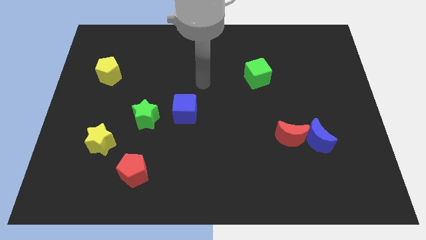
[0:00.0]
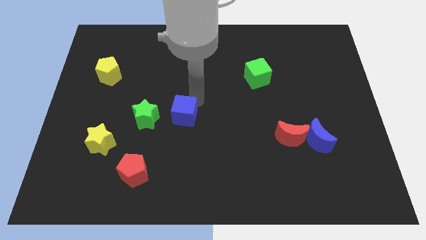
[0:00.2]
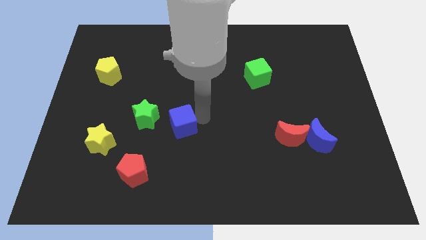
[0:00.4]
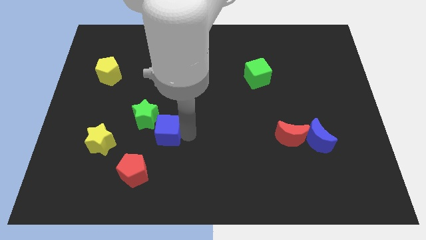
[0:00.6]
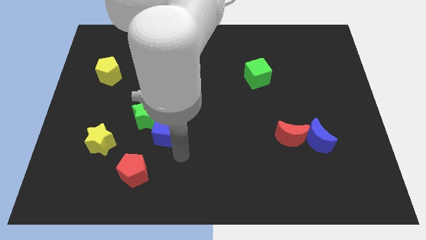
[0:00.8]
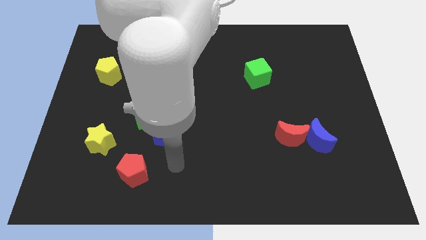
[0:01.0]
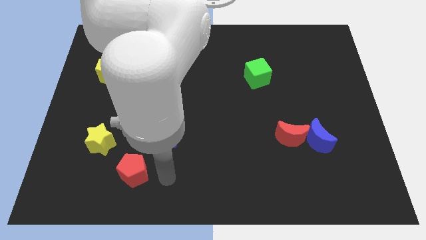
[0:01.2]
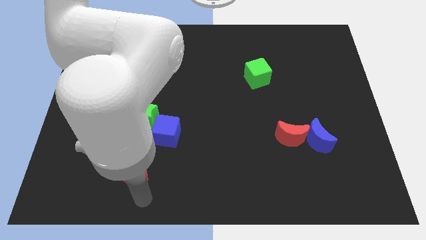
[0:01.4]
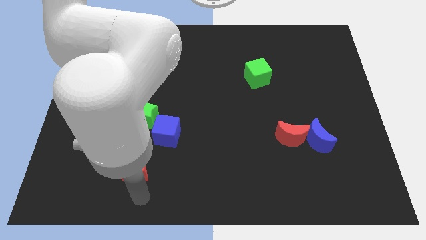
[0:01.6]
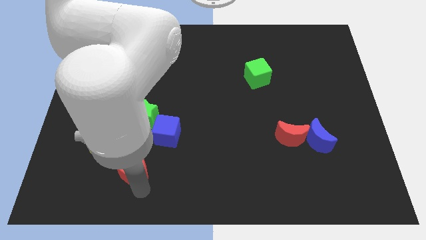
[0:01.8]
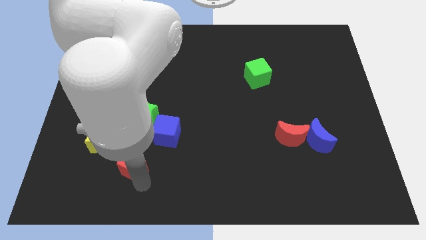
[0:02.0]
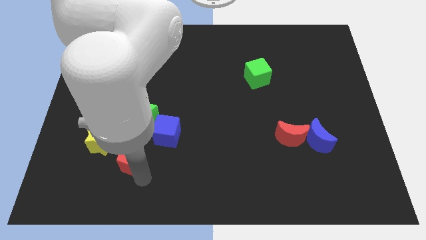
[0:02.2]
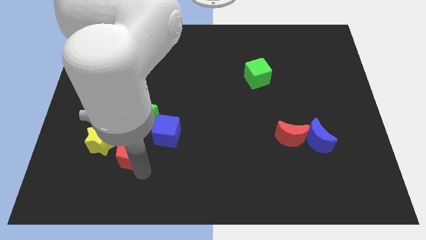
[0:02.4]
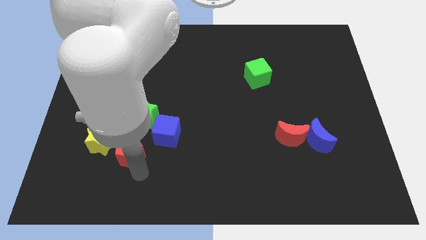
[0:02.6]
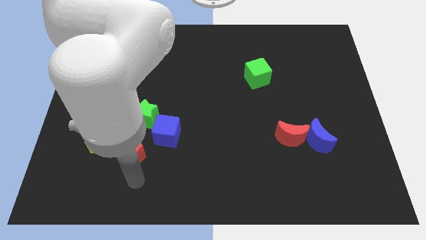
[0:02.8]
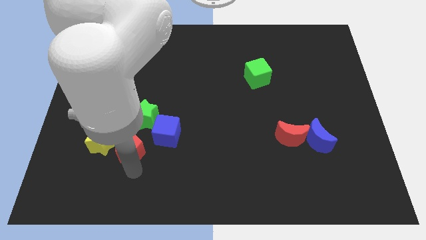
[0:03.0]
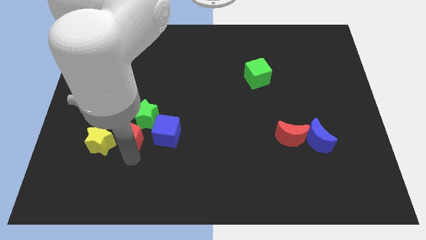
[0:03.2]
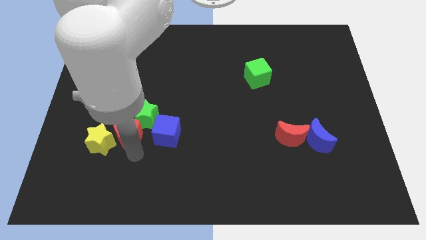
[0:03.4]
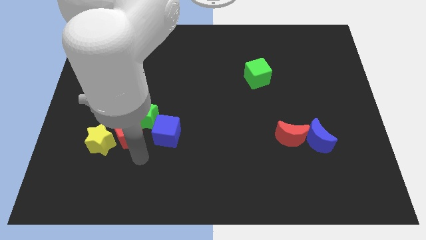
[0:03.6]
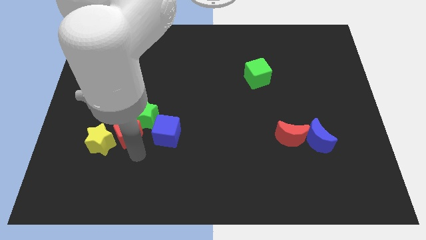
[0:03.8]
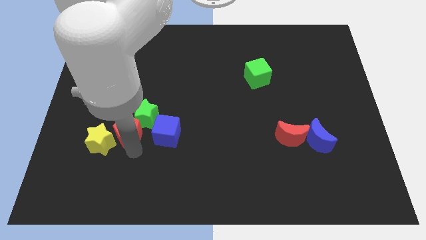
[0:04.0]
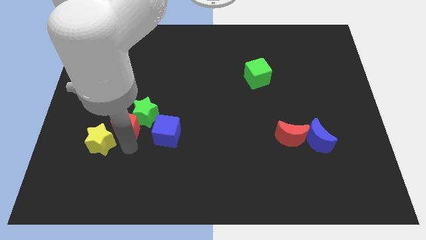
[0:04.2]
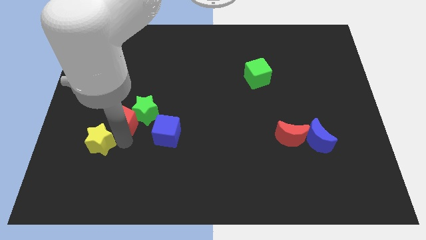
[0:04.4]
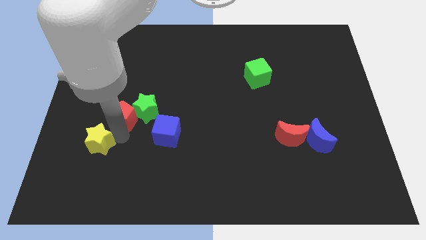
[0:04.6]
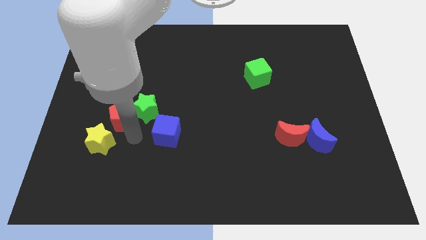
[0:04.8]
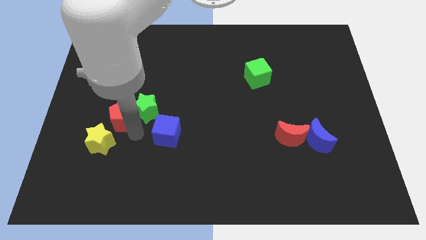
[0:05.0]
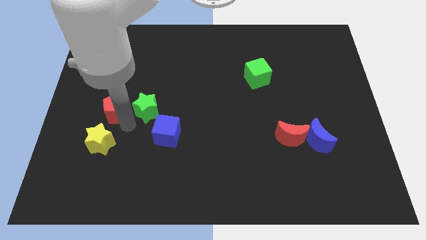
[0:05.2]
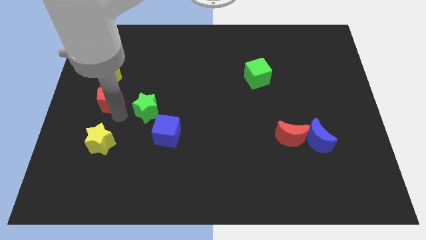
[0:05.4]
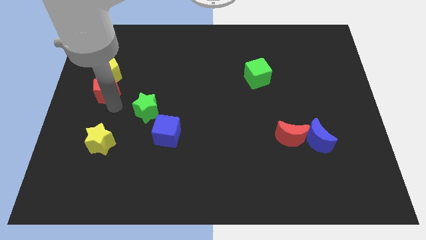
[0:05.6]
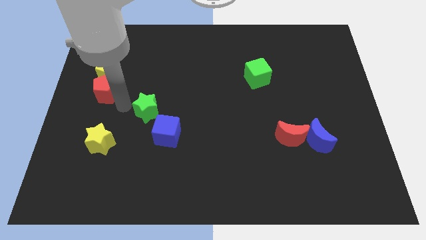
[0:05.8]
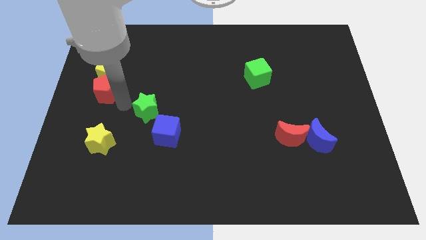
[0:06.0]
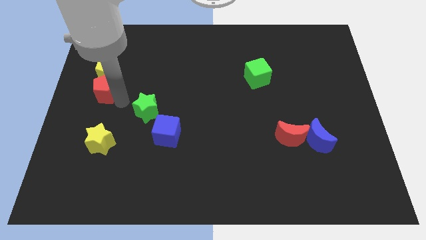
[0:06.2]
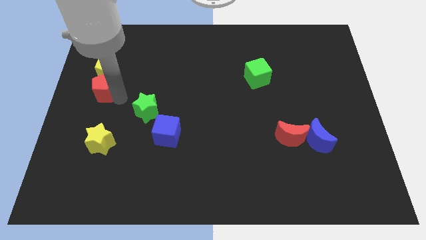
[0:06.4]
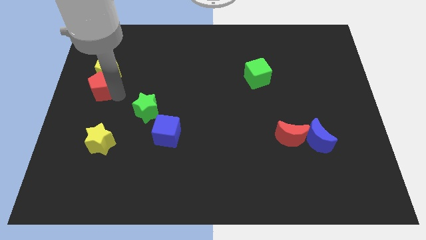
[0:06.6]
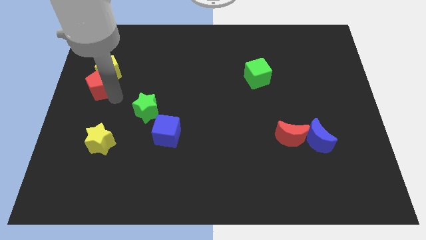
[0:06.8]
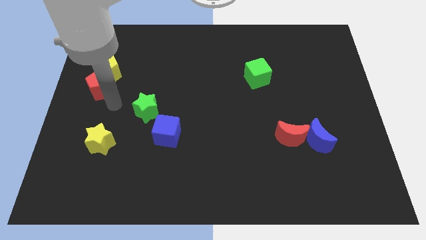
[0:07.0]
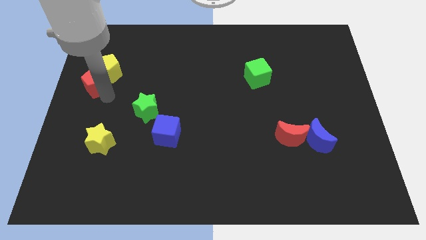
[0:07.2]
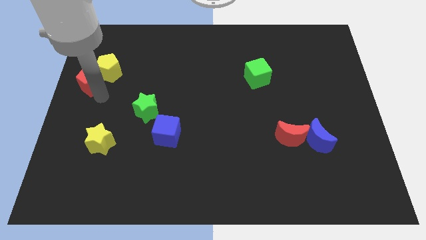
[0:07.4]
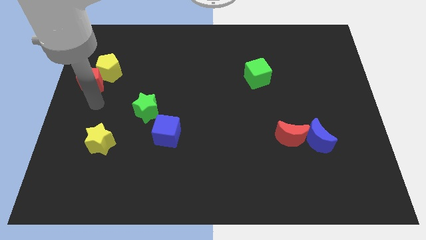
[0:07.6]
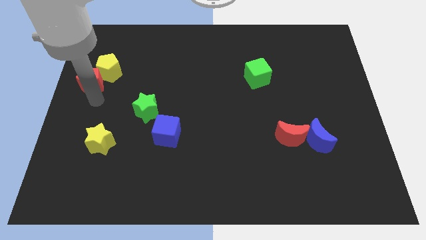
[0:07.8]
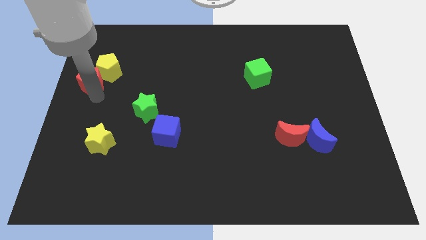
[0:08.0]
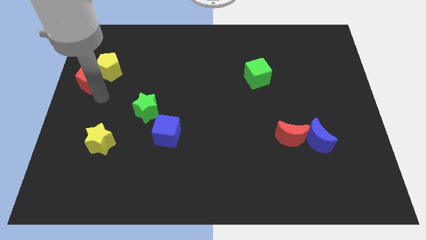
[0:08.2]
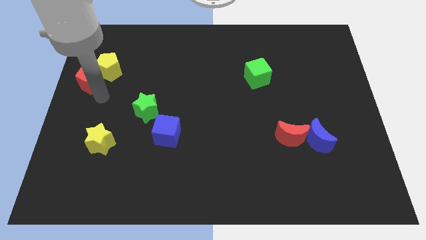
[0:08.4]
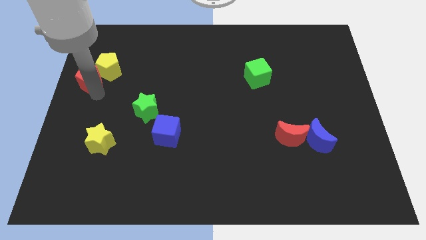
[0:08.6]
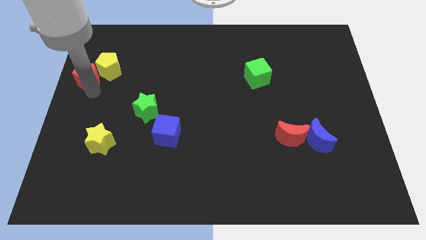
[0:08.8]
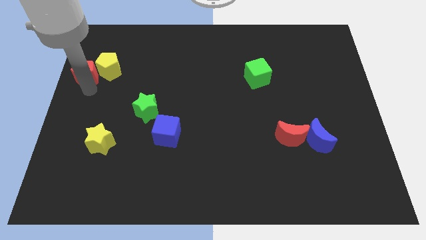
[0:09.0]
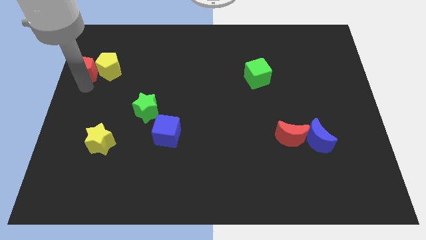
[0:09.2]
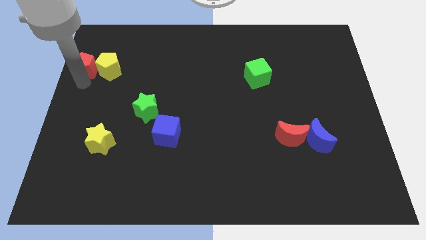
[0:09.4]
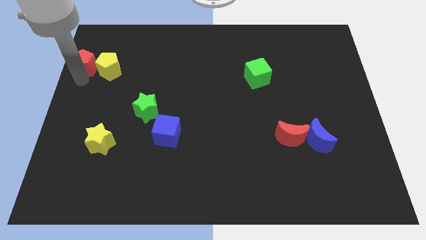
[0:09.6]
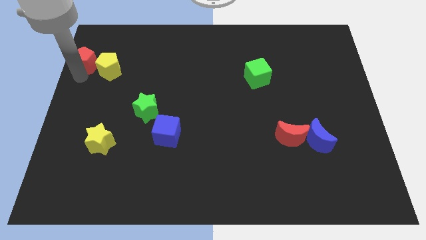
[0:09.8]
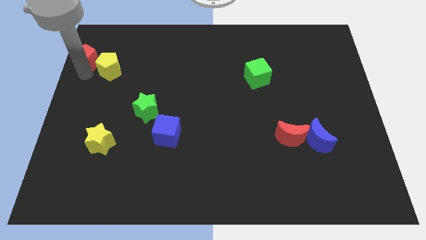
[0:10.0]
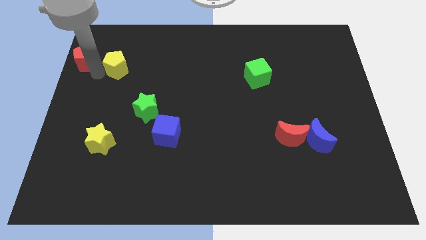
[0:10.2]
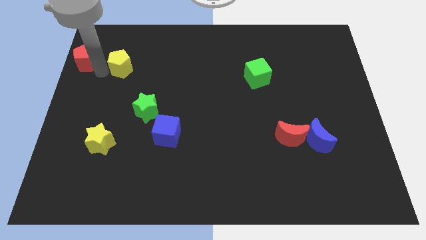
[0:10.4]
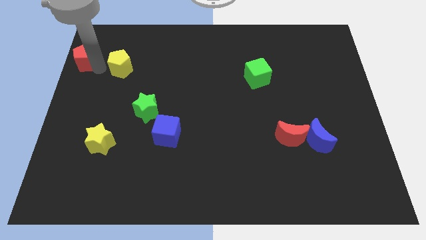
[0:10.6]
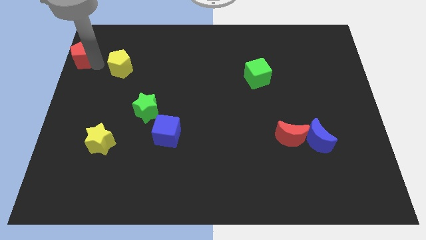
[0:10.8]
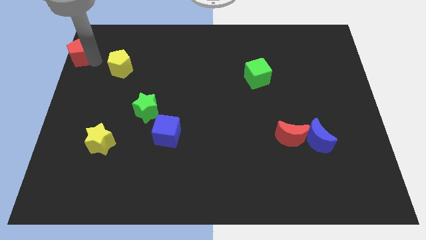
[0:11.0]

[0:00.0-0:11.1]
slide the red pentagon to the top left of the board

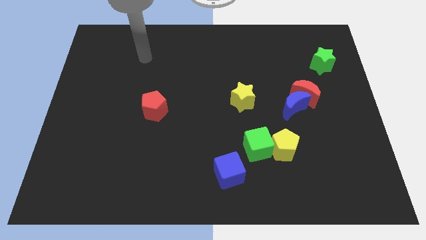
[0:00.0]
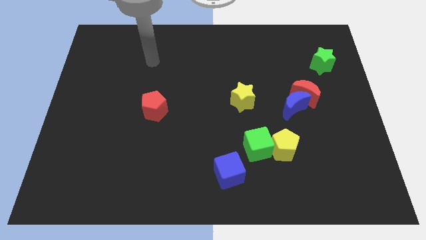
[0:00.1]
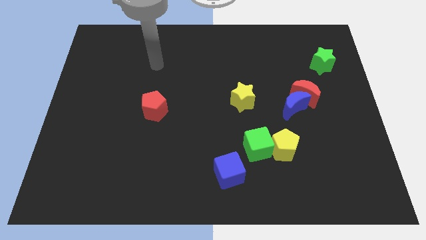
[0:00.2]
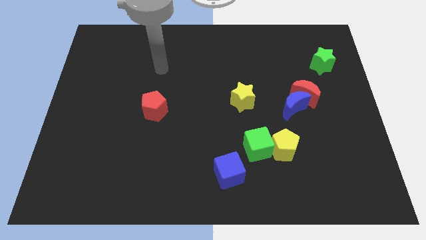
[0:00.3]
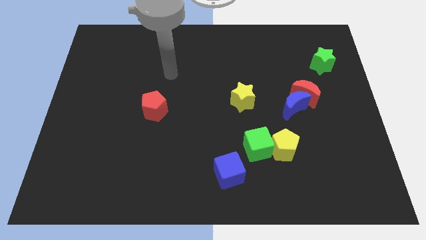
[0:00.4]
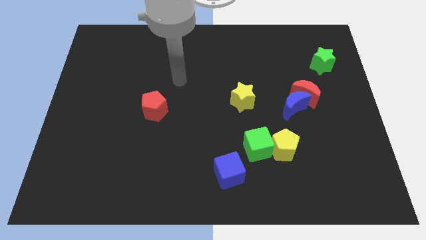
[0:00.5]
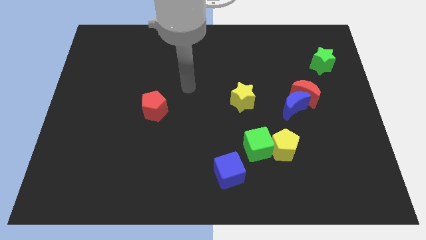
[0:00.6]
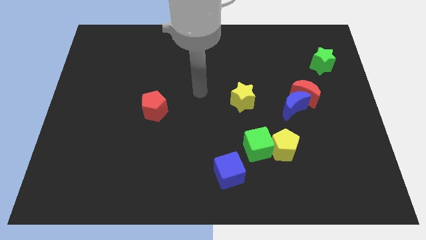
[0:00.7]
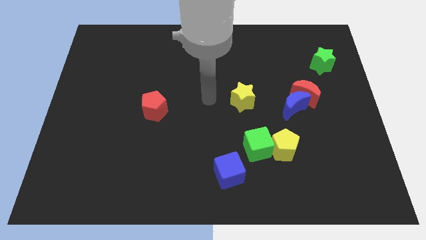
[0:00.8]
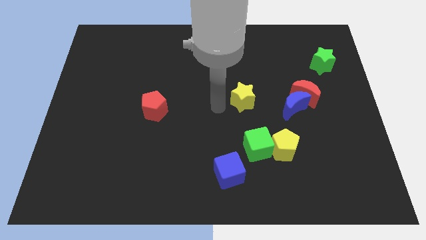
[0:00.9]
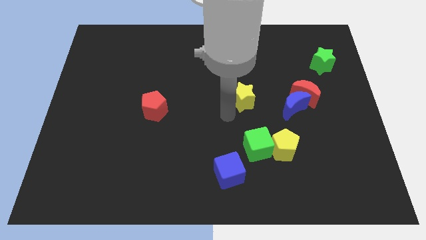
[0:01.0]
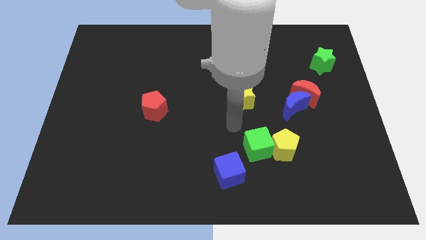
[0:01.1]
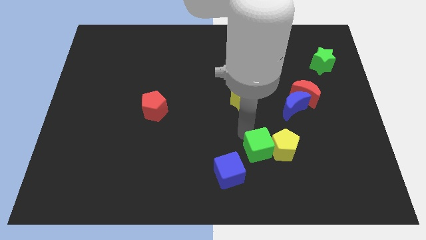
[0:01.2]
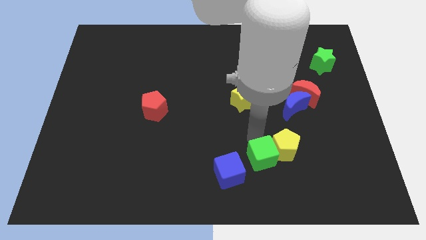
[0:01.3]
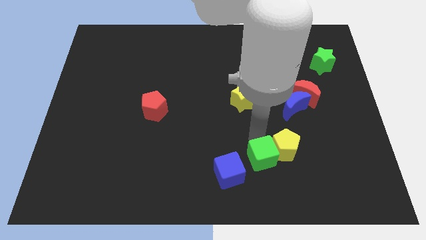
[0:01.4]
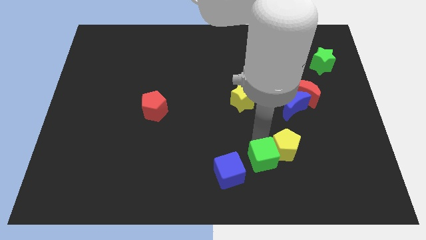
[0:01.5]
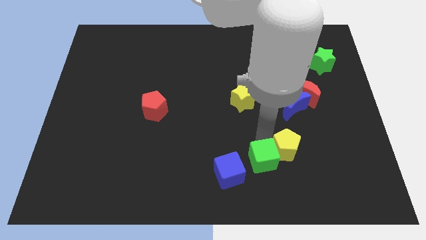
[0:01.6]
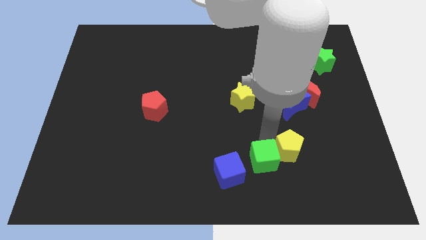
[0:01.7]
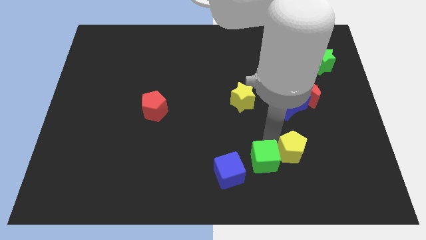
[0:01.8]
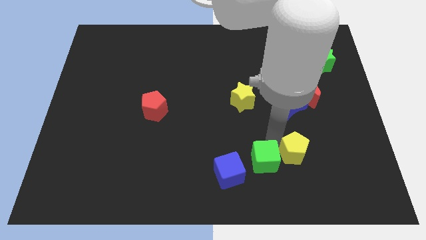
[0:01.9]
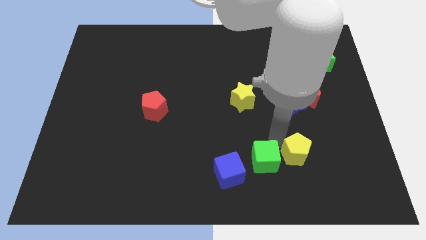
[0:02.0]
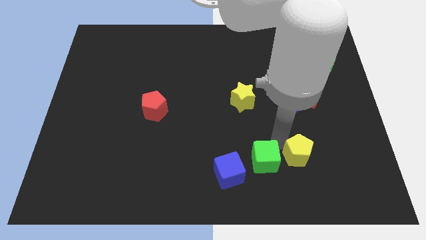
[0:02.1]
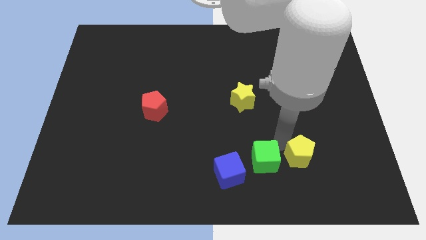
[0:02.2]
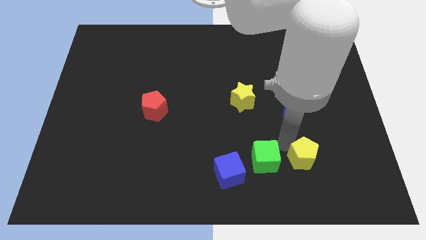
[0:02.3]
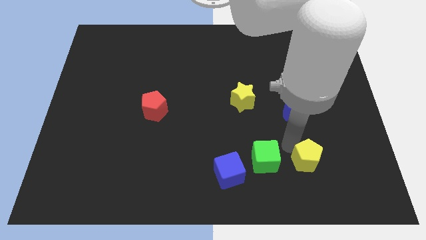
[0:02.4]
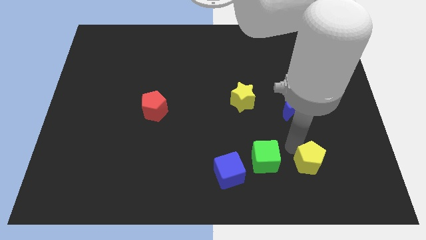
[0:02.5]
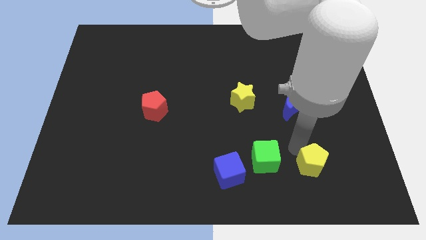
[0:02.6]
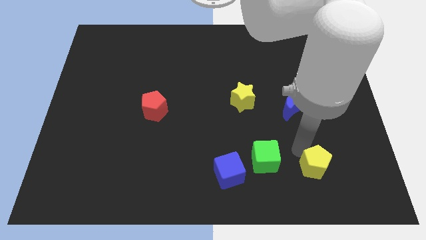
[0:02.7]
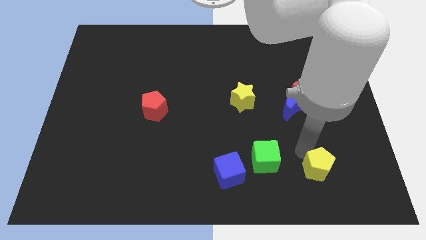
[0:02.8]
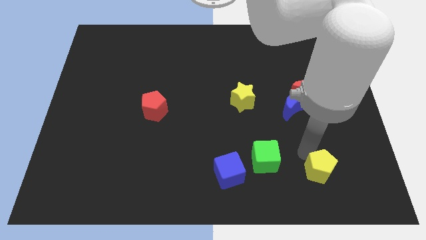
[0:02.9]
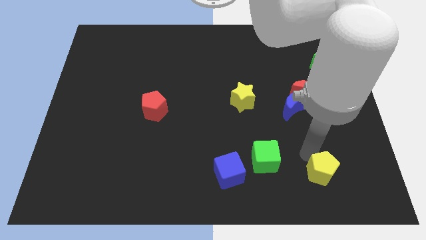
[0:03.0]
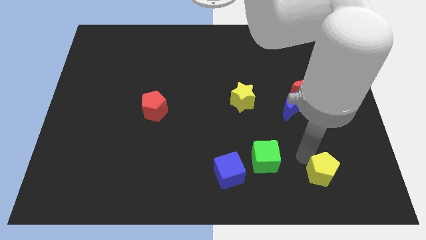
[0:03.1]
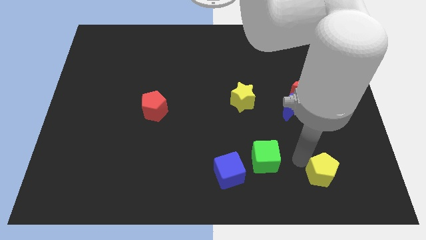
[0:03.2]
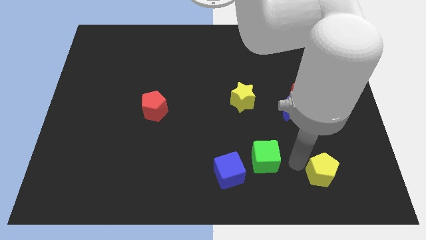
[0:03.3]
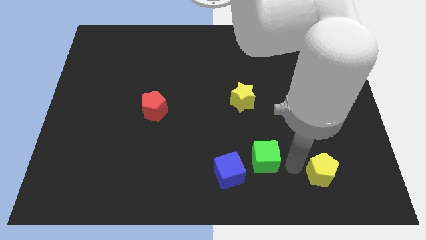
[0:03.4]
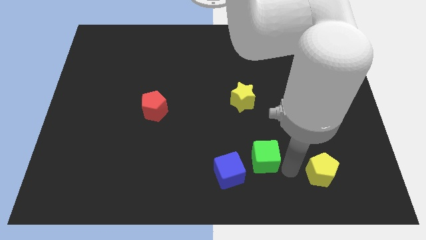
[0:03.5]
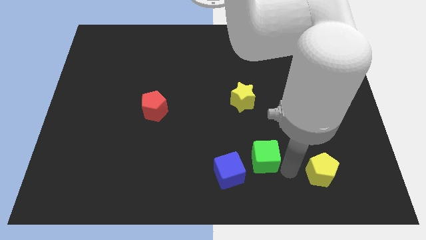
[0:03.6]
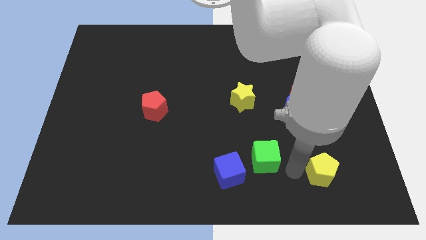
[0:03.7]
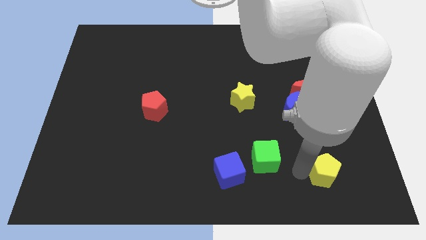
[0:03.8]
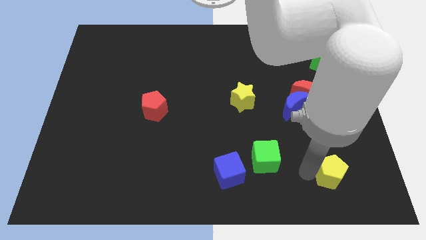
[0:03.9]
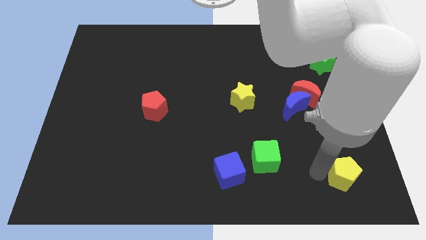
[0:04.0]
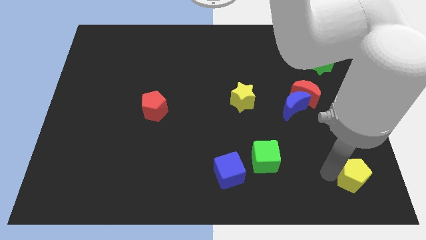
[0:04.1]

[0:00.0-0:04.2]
slide the yellow pentagon to the bottom right corner
